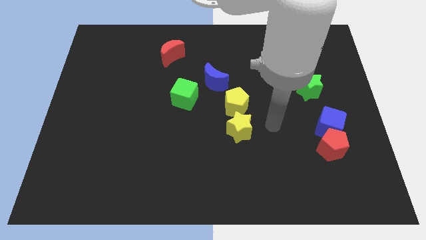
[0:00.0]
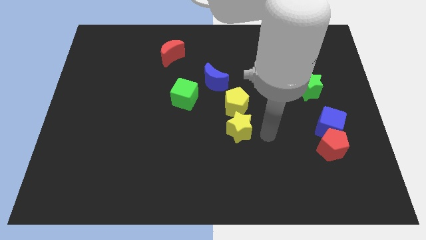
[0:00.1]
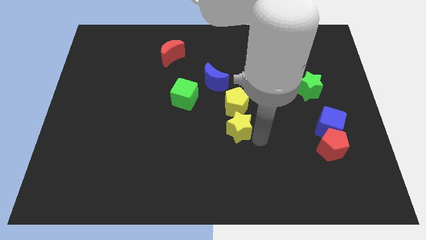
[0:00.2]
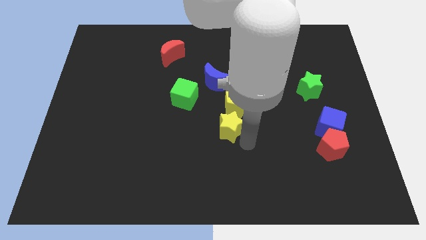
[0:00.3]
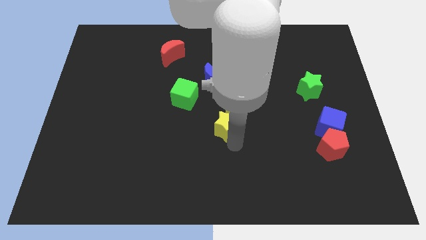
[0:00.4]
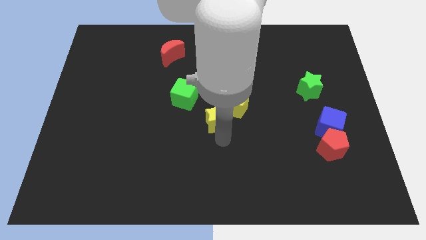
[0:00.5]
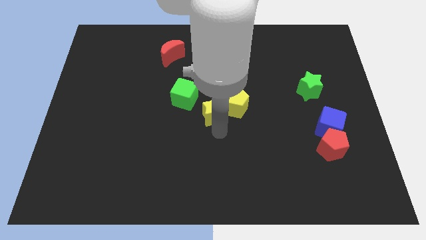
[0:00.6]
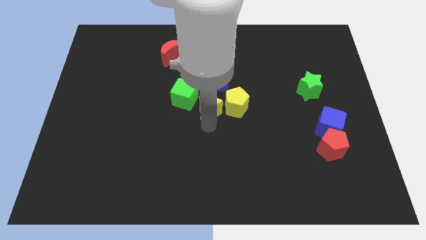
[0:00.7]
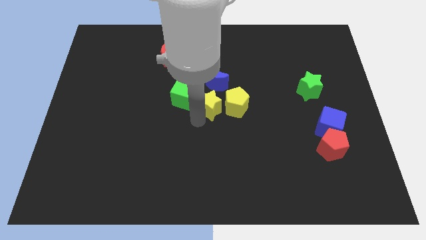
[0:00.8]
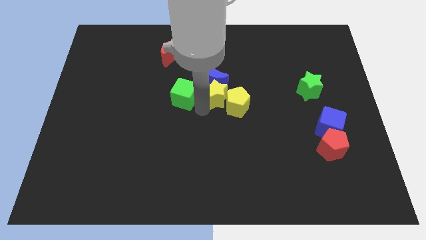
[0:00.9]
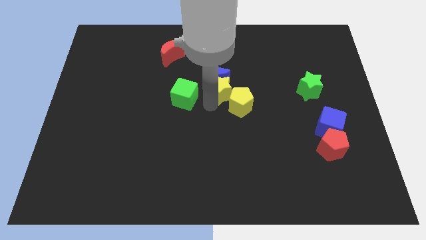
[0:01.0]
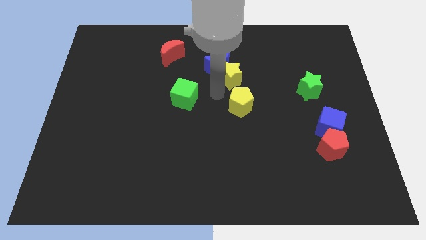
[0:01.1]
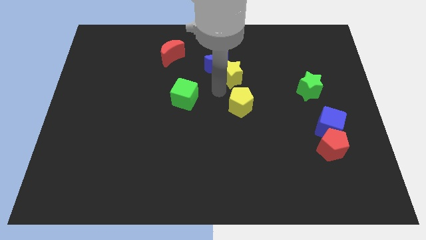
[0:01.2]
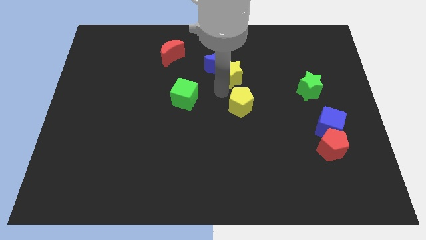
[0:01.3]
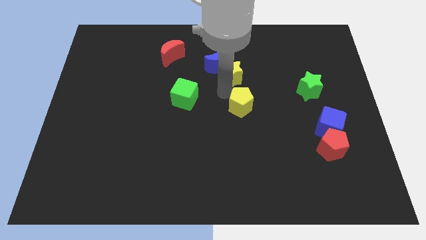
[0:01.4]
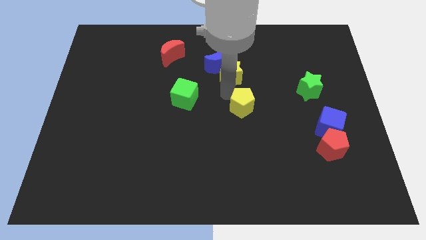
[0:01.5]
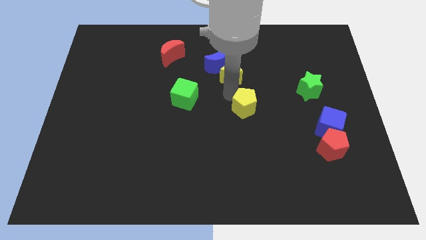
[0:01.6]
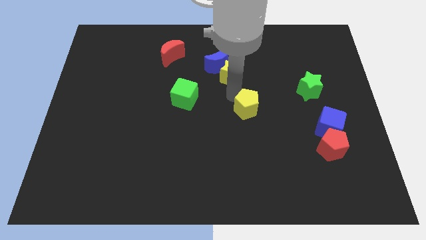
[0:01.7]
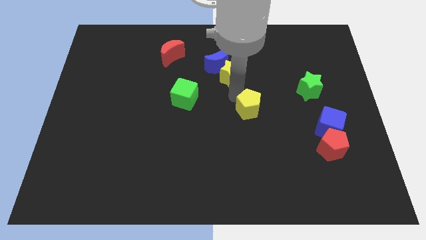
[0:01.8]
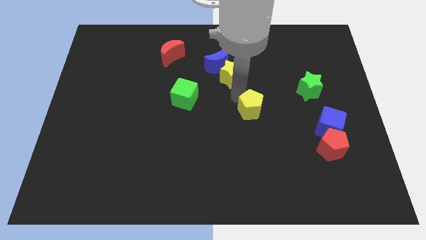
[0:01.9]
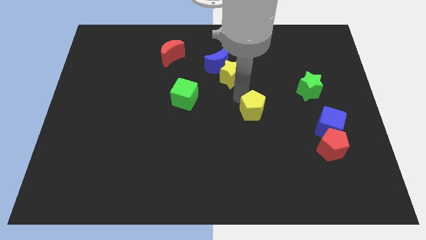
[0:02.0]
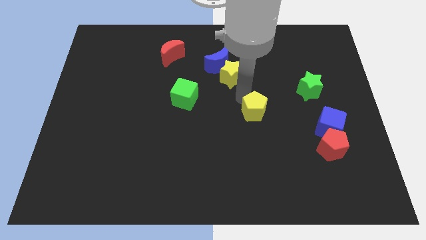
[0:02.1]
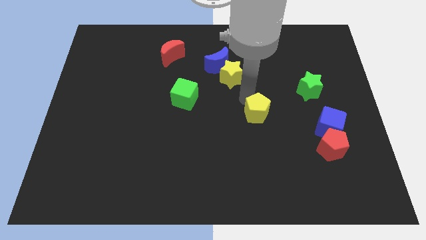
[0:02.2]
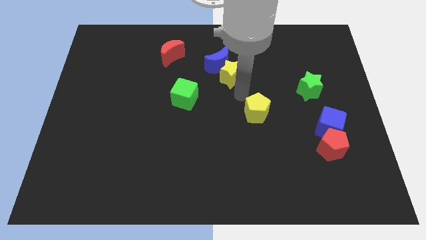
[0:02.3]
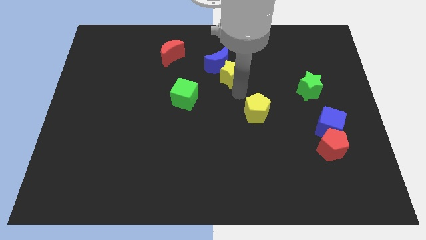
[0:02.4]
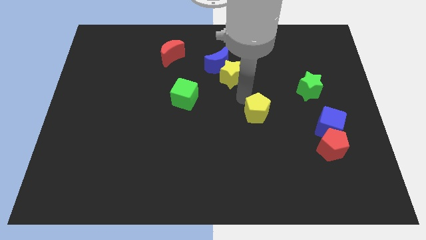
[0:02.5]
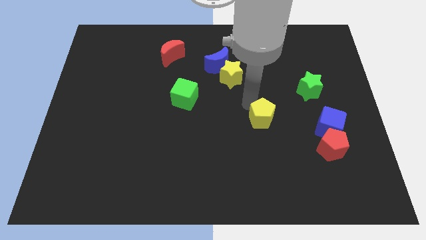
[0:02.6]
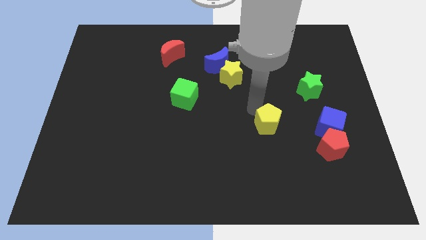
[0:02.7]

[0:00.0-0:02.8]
move the yellow pentagon down and to the right slightly

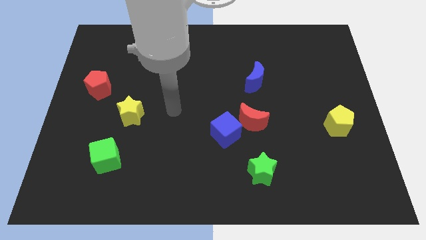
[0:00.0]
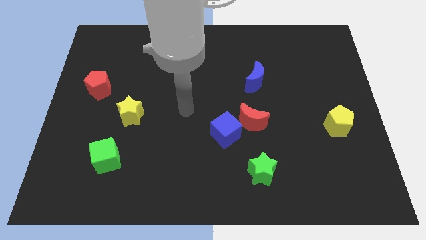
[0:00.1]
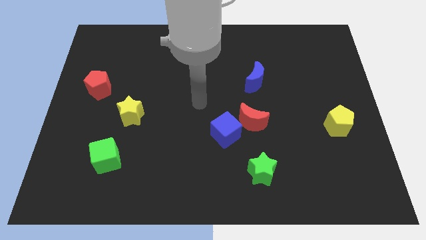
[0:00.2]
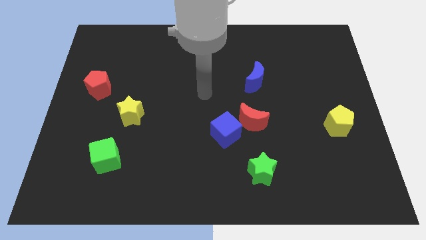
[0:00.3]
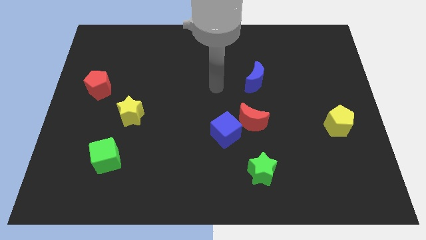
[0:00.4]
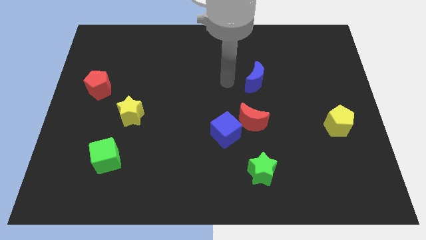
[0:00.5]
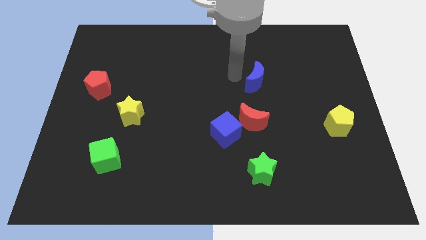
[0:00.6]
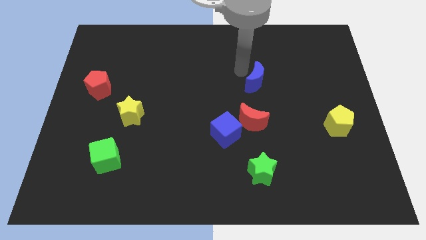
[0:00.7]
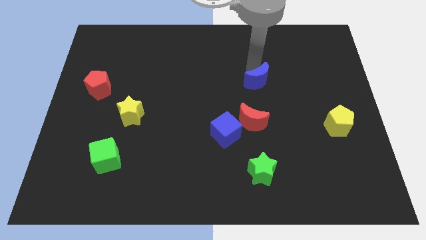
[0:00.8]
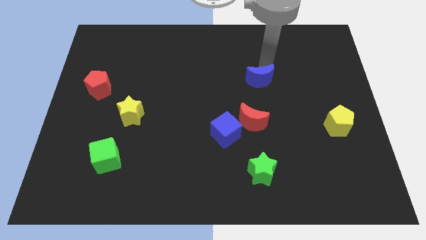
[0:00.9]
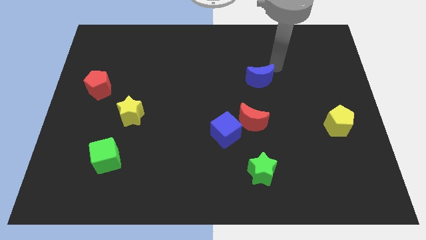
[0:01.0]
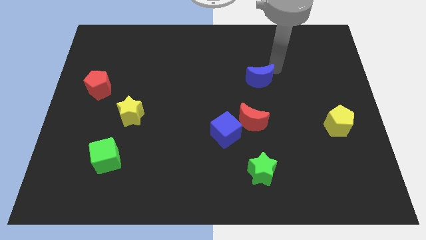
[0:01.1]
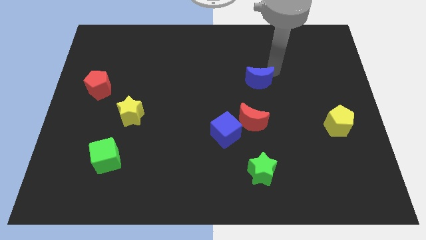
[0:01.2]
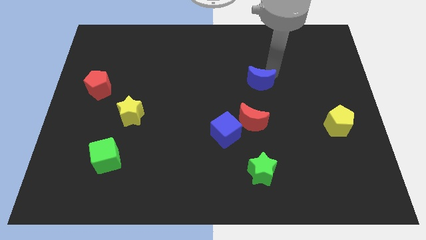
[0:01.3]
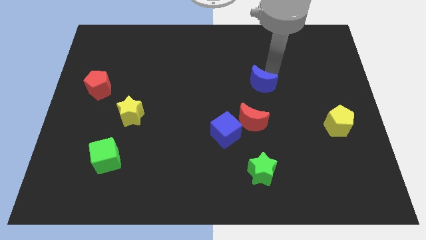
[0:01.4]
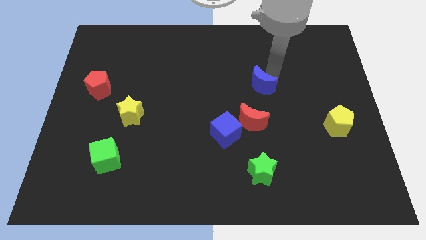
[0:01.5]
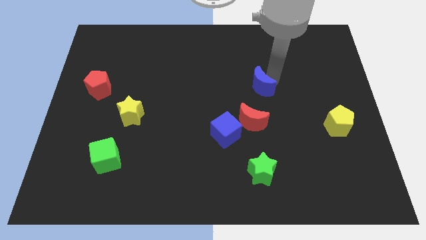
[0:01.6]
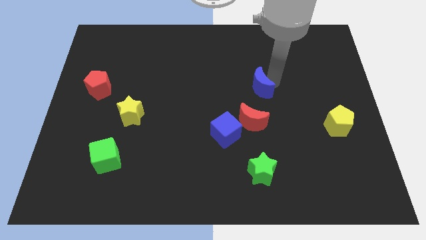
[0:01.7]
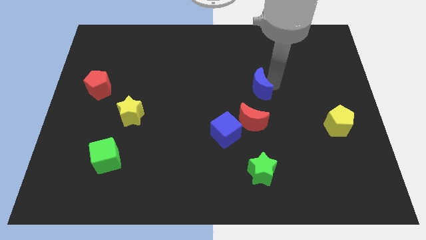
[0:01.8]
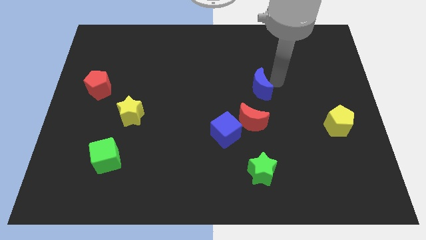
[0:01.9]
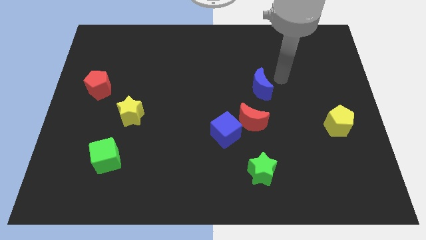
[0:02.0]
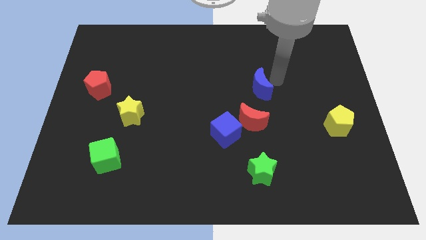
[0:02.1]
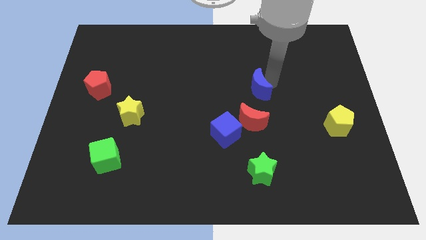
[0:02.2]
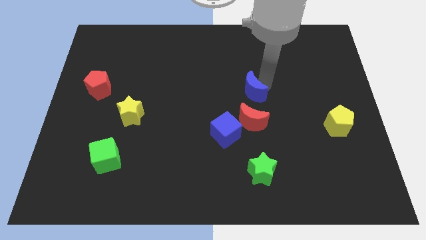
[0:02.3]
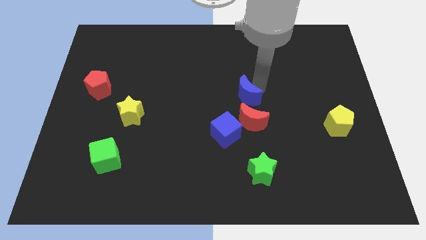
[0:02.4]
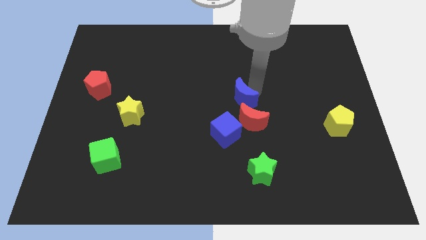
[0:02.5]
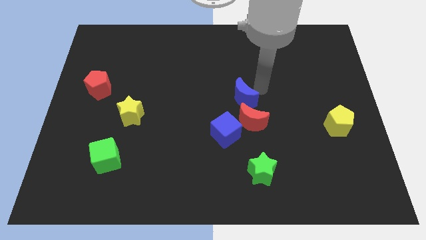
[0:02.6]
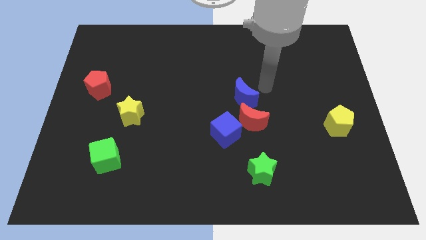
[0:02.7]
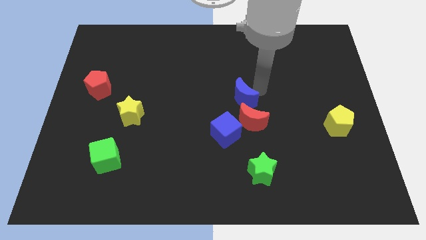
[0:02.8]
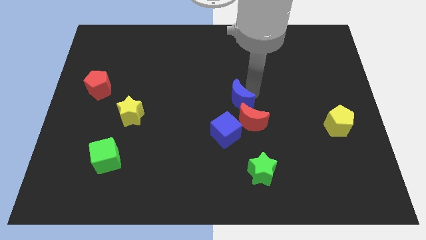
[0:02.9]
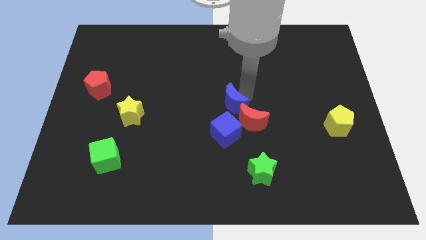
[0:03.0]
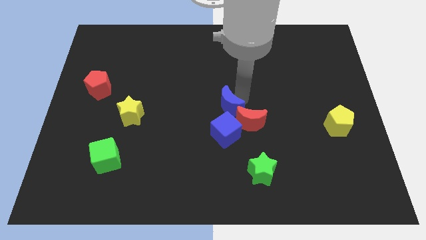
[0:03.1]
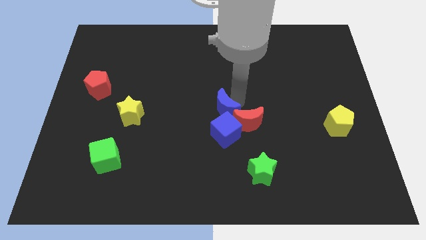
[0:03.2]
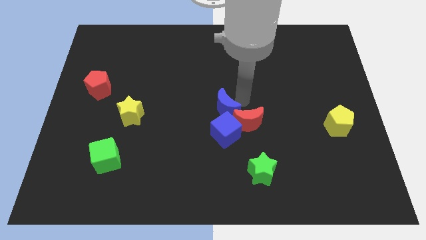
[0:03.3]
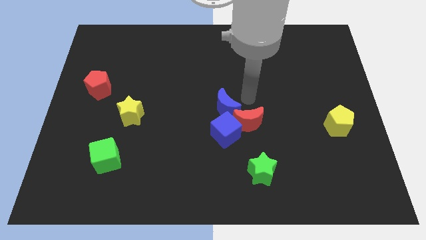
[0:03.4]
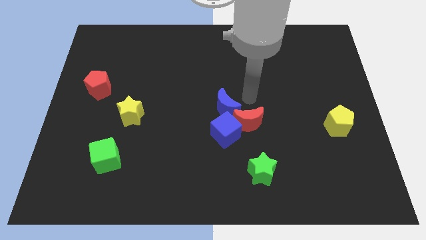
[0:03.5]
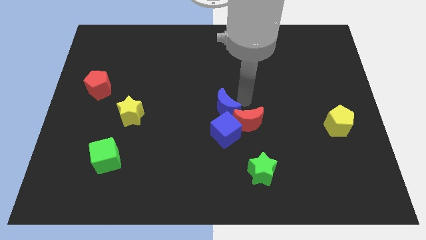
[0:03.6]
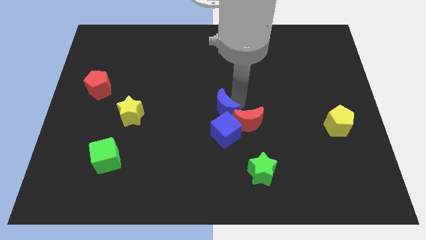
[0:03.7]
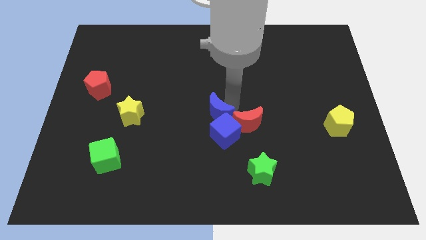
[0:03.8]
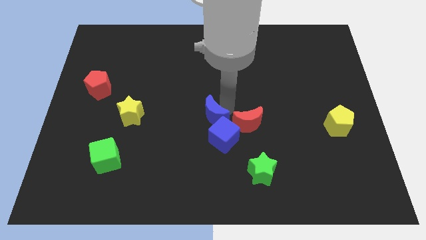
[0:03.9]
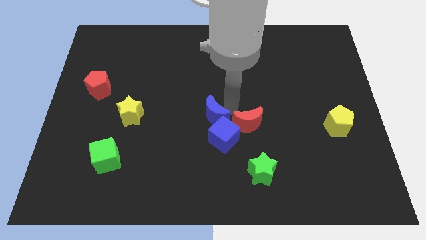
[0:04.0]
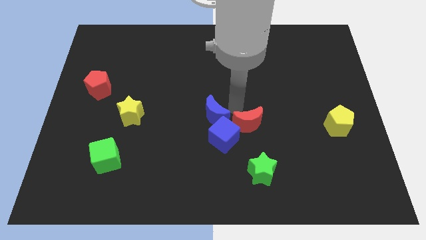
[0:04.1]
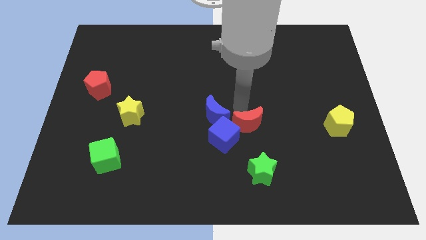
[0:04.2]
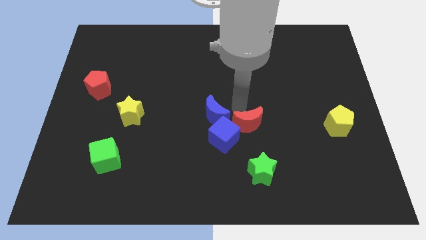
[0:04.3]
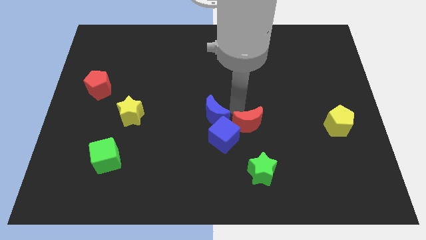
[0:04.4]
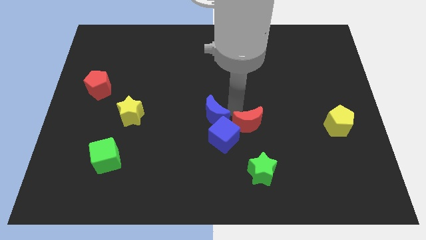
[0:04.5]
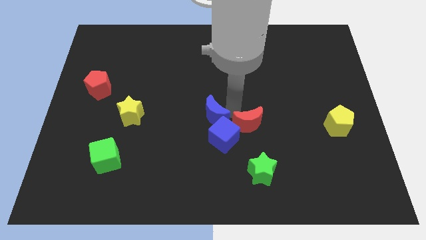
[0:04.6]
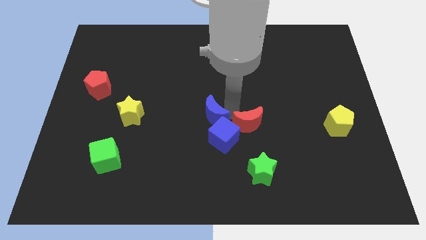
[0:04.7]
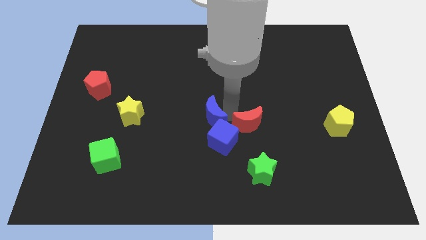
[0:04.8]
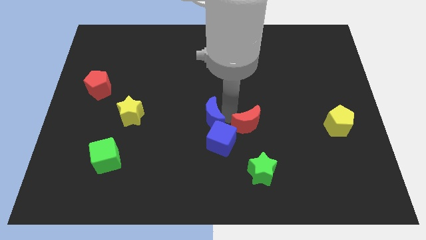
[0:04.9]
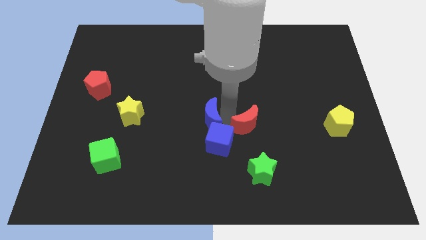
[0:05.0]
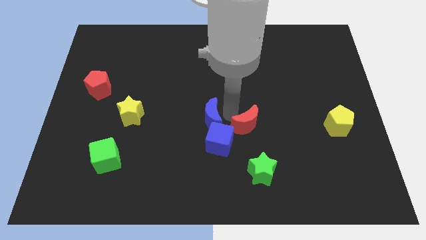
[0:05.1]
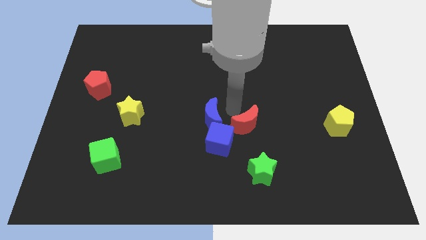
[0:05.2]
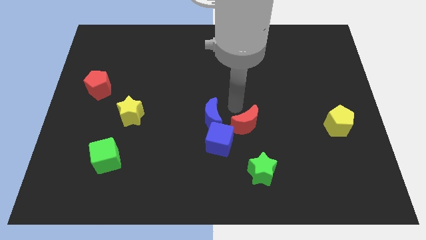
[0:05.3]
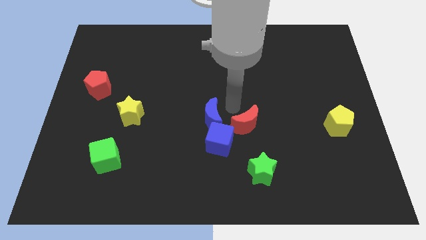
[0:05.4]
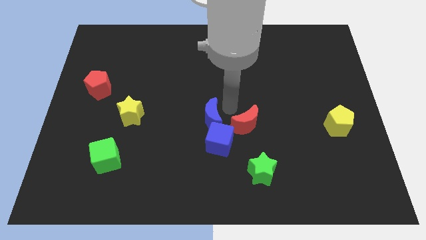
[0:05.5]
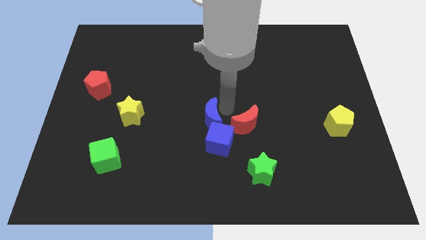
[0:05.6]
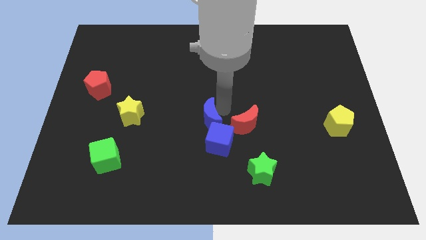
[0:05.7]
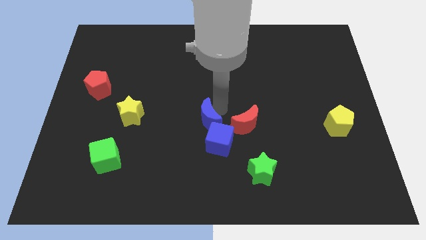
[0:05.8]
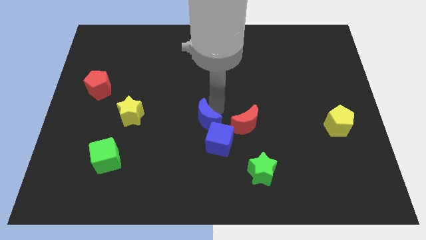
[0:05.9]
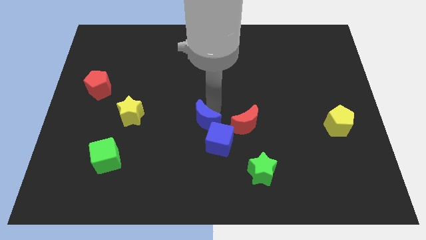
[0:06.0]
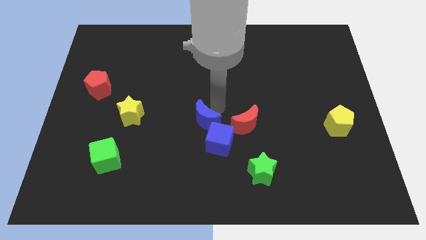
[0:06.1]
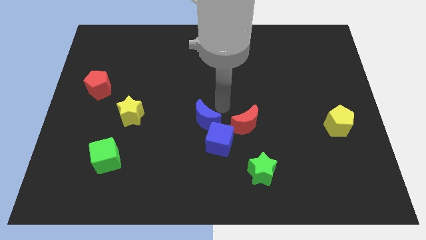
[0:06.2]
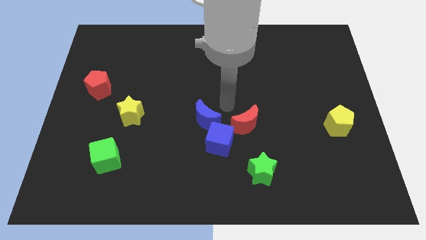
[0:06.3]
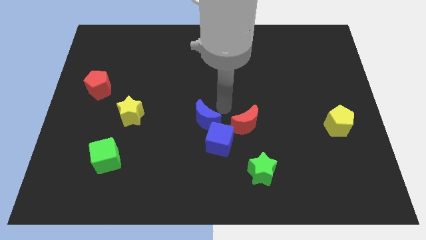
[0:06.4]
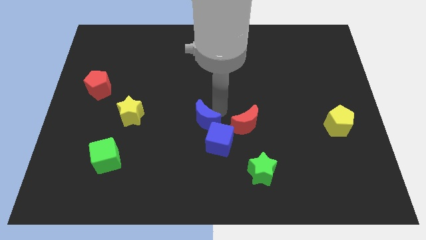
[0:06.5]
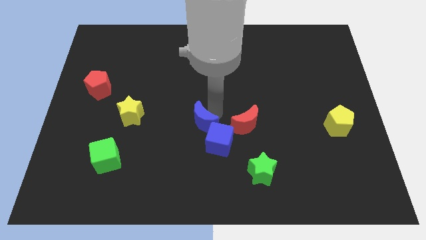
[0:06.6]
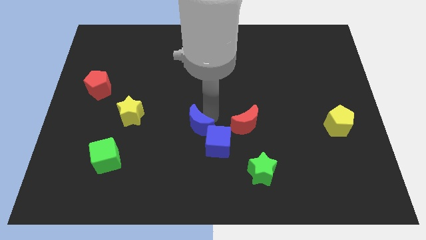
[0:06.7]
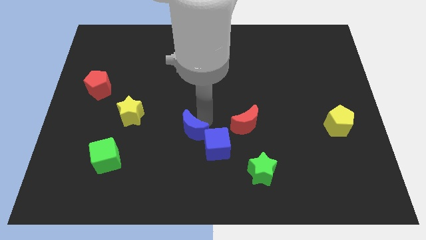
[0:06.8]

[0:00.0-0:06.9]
move the blue moon down and to the left
